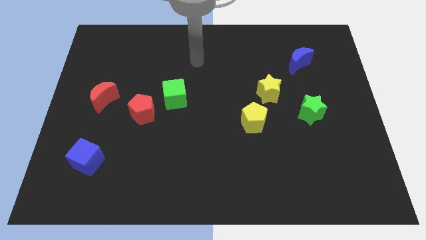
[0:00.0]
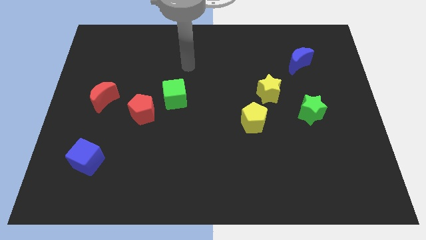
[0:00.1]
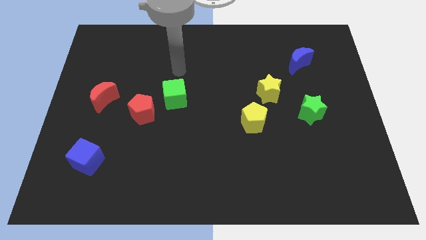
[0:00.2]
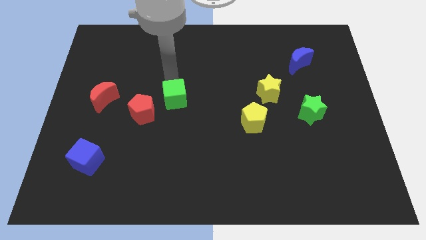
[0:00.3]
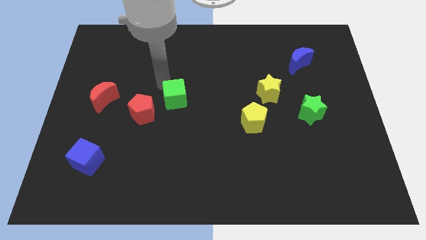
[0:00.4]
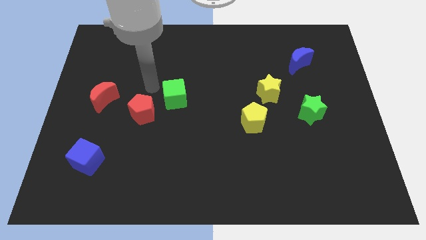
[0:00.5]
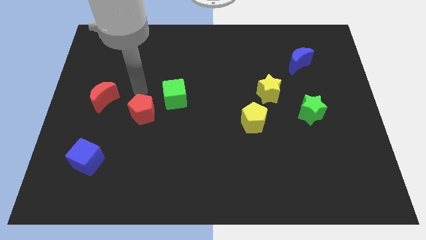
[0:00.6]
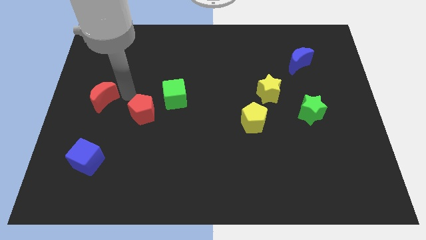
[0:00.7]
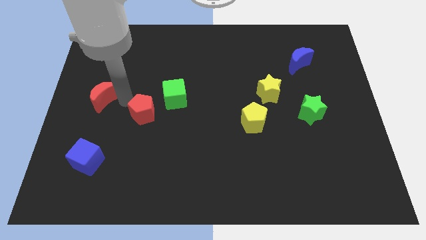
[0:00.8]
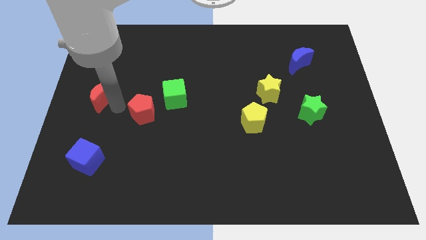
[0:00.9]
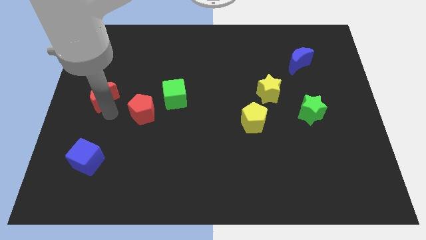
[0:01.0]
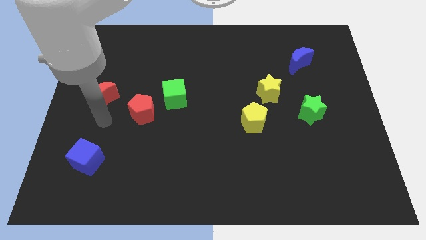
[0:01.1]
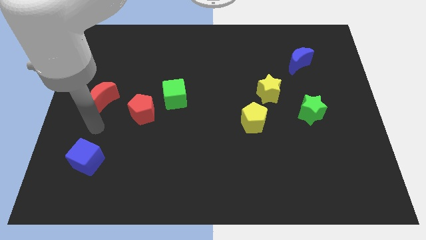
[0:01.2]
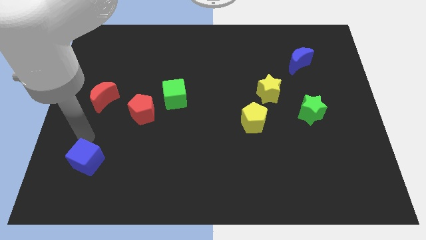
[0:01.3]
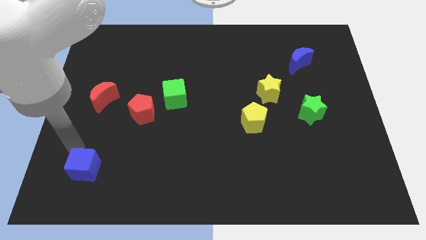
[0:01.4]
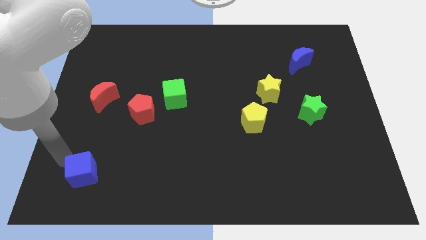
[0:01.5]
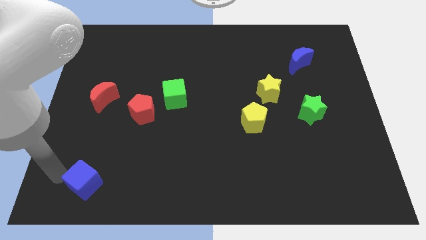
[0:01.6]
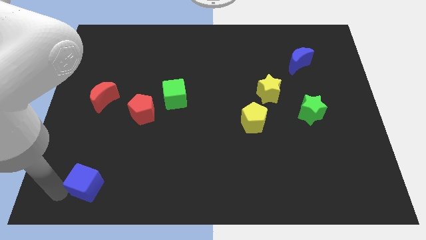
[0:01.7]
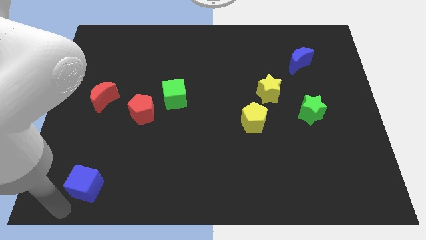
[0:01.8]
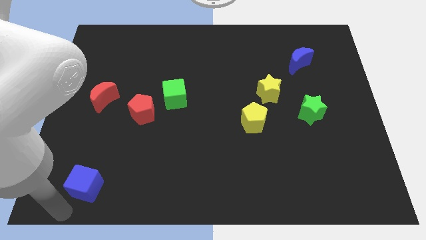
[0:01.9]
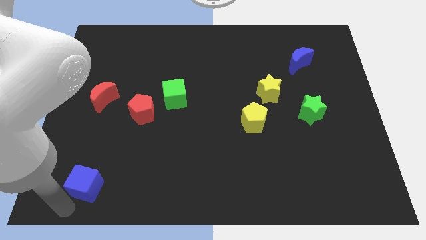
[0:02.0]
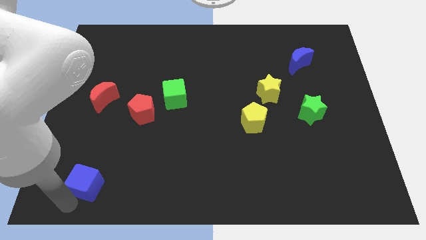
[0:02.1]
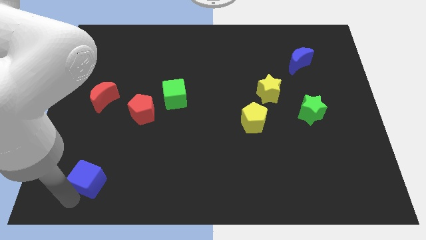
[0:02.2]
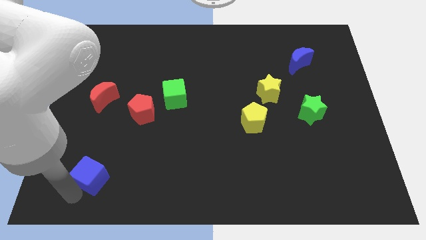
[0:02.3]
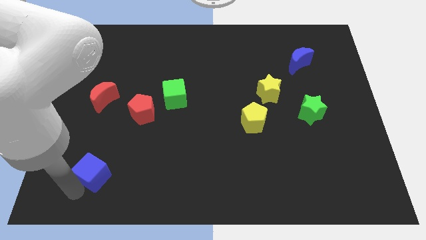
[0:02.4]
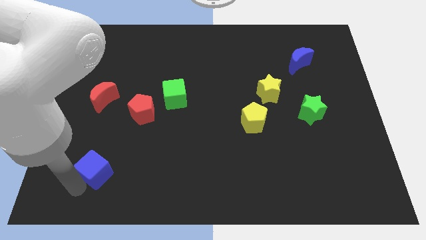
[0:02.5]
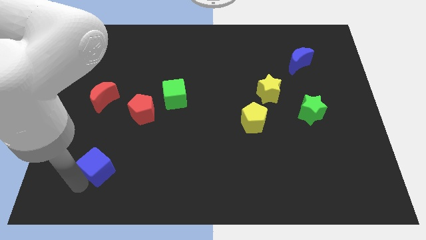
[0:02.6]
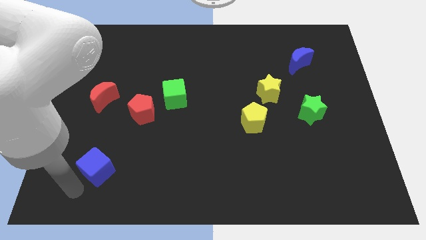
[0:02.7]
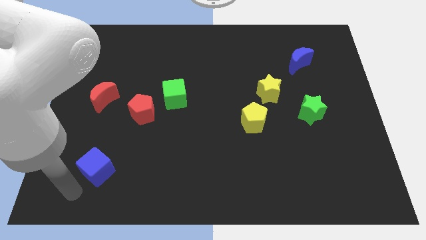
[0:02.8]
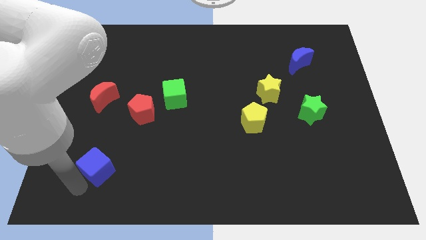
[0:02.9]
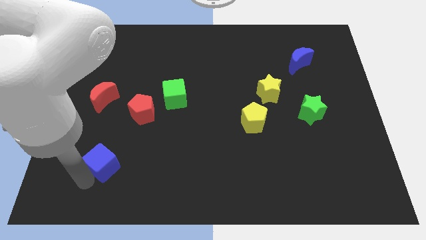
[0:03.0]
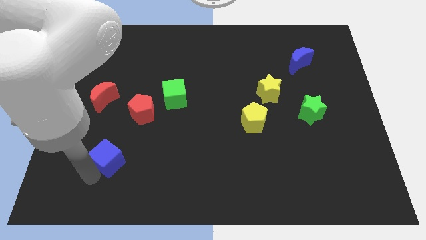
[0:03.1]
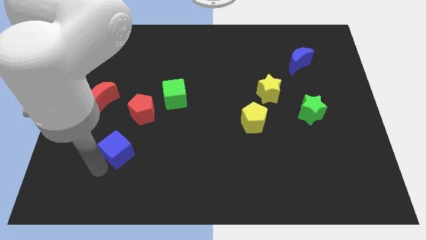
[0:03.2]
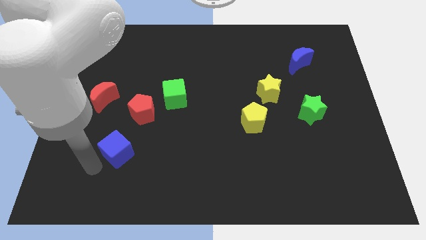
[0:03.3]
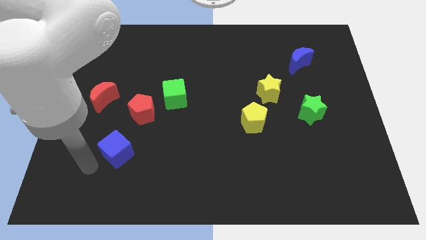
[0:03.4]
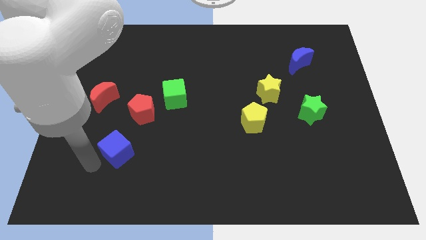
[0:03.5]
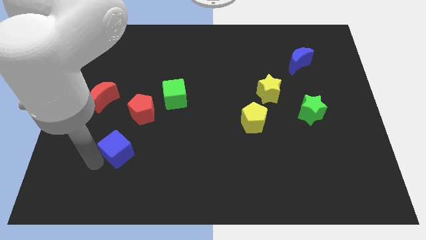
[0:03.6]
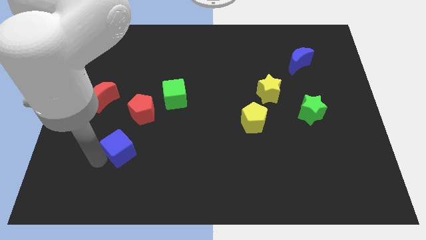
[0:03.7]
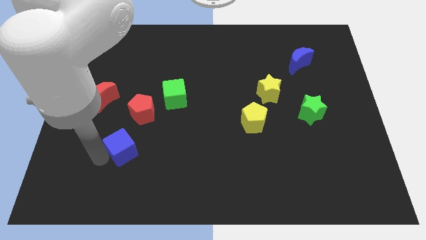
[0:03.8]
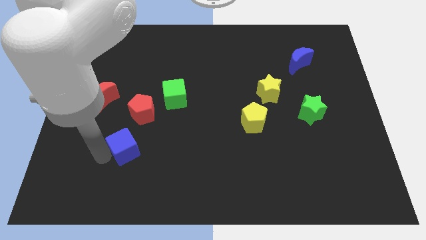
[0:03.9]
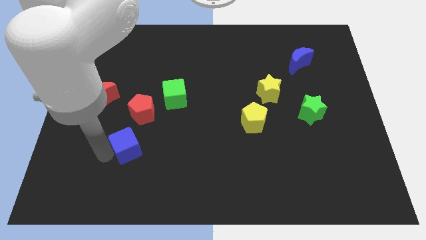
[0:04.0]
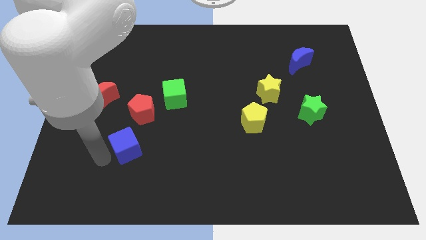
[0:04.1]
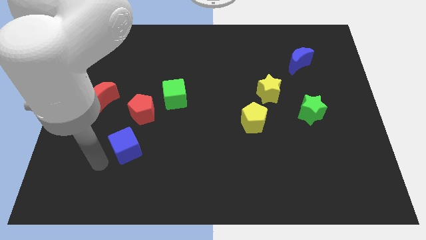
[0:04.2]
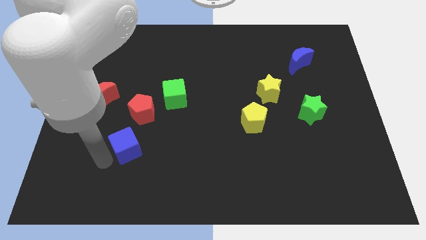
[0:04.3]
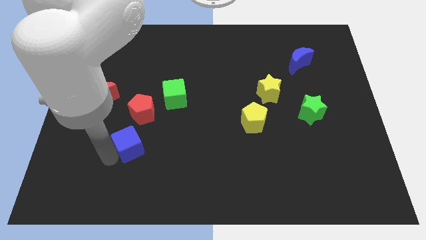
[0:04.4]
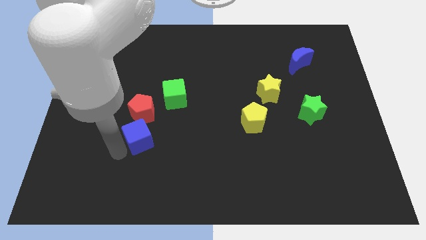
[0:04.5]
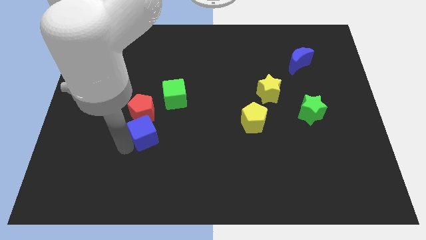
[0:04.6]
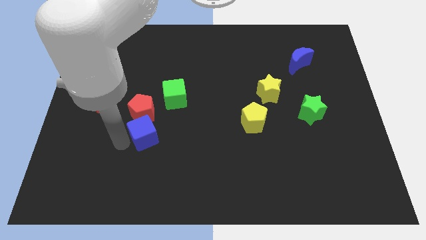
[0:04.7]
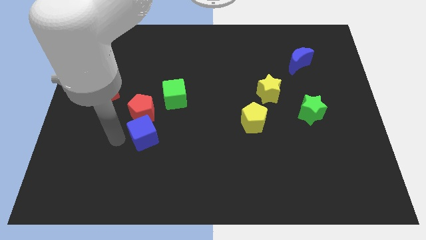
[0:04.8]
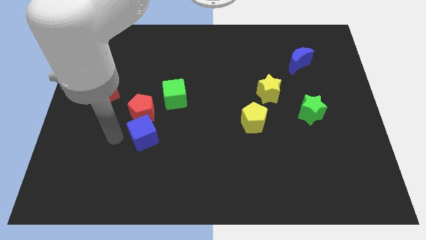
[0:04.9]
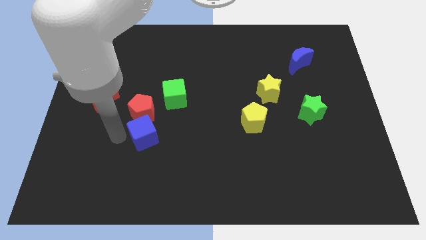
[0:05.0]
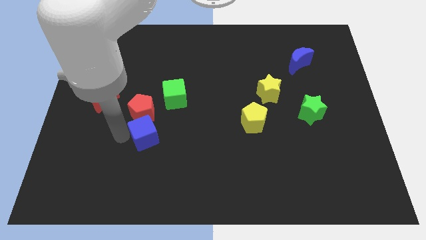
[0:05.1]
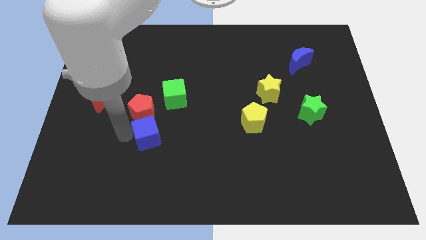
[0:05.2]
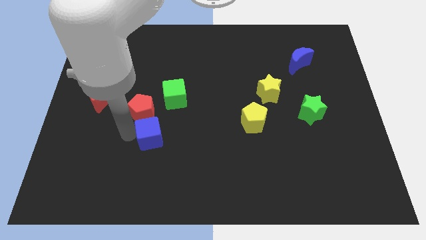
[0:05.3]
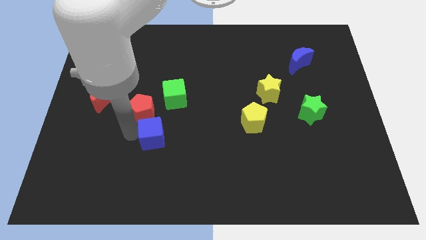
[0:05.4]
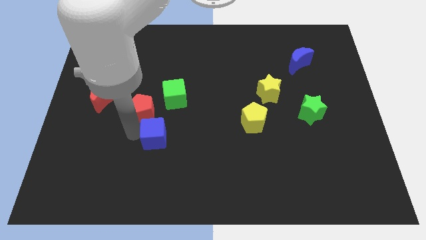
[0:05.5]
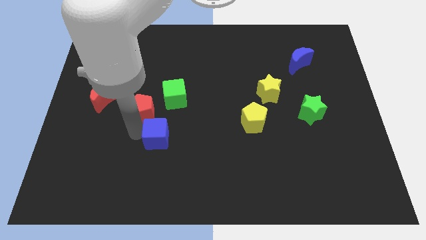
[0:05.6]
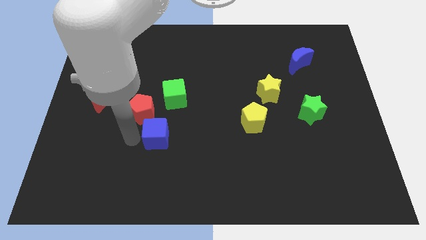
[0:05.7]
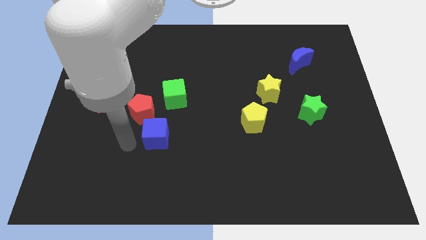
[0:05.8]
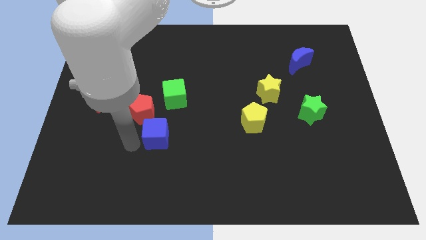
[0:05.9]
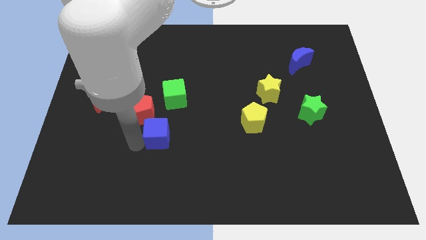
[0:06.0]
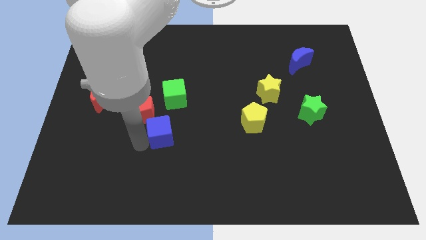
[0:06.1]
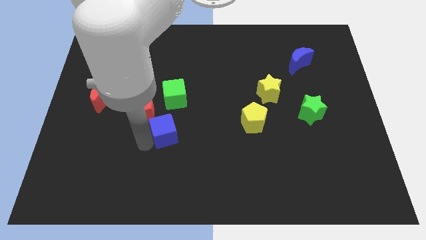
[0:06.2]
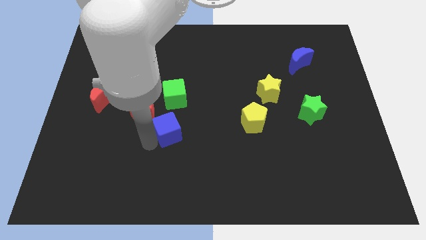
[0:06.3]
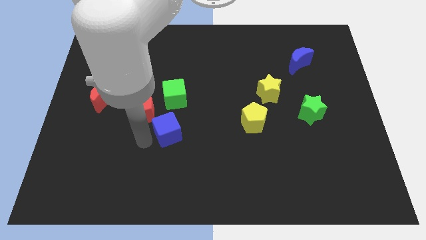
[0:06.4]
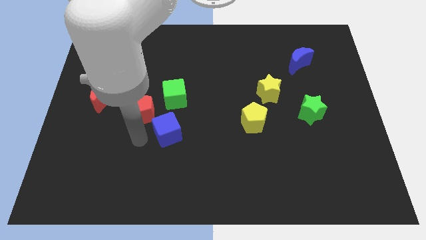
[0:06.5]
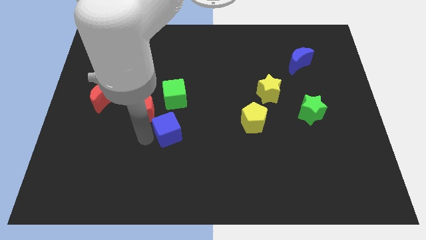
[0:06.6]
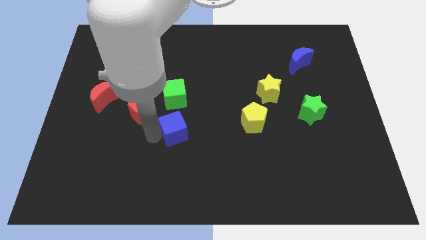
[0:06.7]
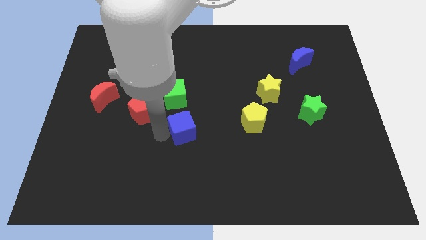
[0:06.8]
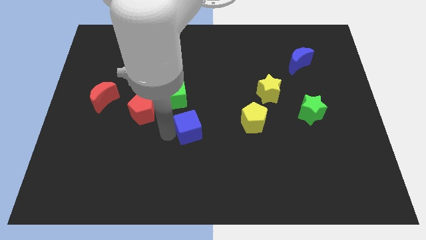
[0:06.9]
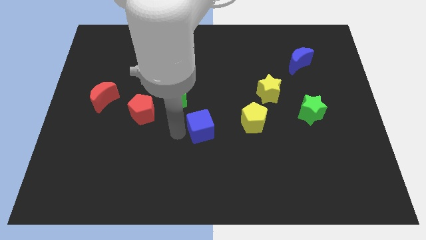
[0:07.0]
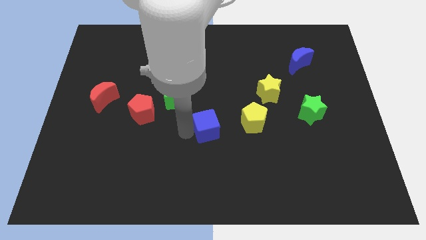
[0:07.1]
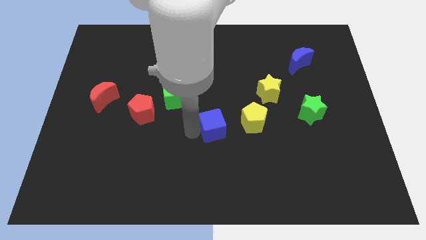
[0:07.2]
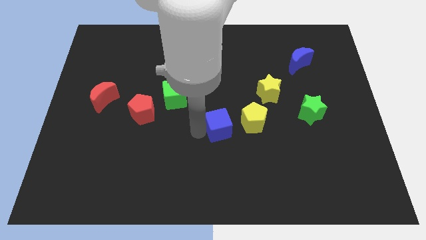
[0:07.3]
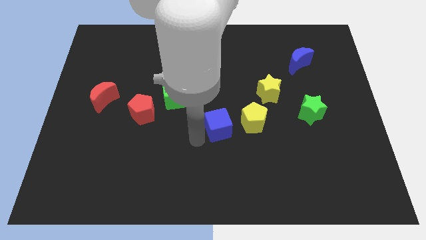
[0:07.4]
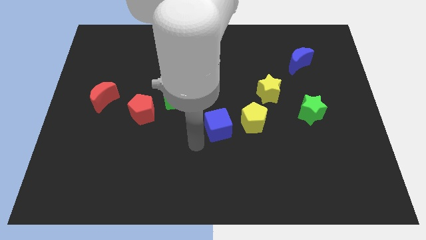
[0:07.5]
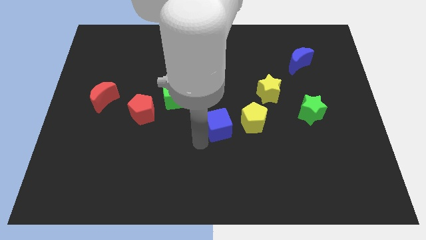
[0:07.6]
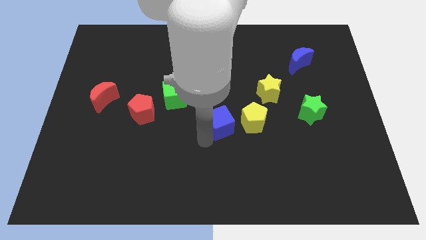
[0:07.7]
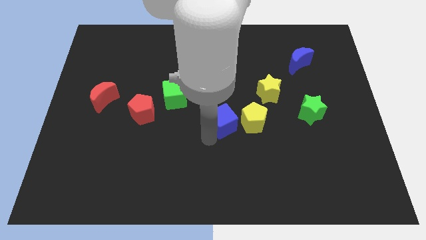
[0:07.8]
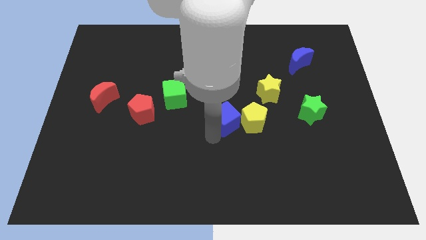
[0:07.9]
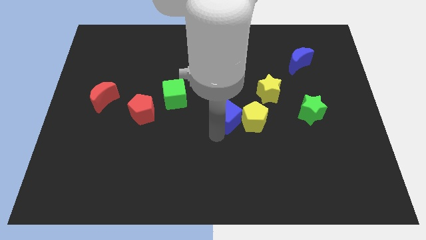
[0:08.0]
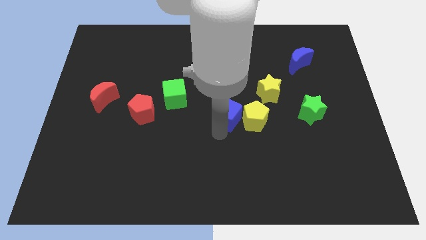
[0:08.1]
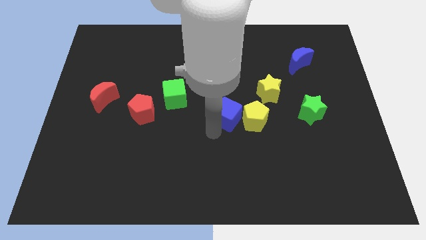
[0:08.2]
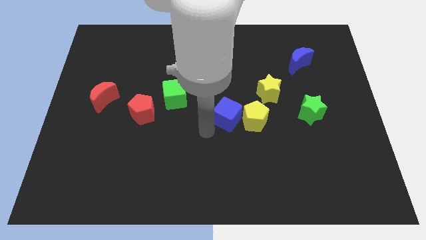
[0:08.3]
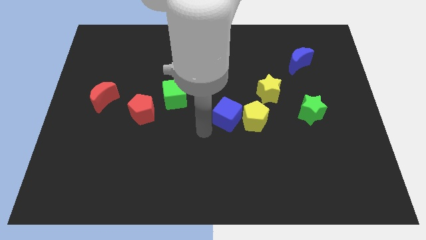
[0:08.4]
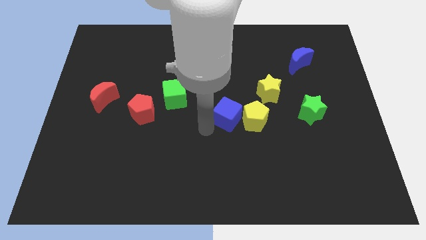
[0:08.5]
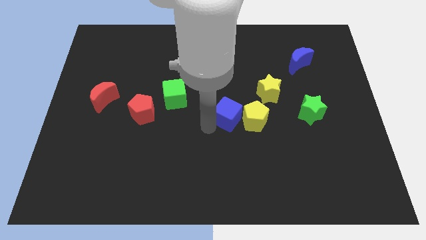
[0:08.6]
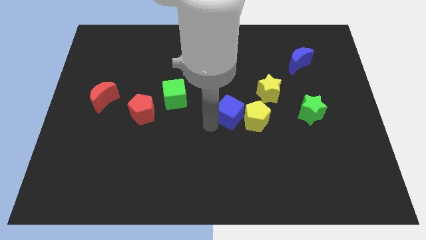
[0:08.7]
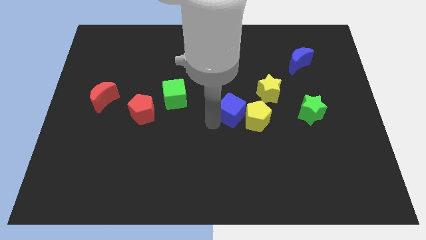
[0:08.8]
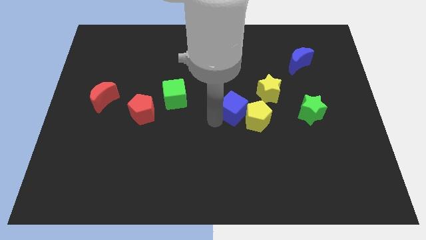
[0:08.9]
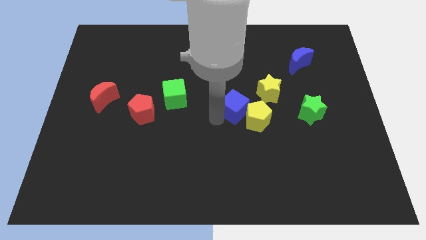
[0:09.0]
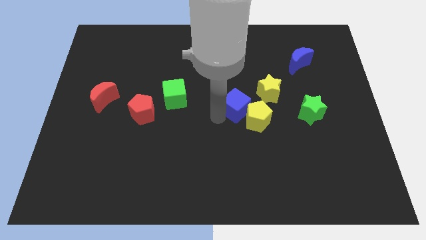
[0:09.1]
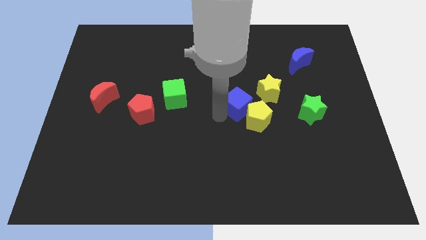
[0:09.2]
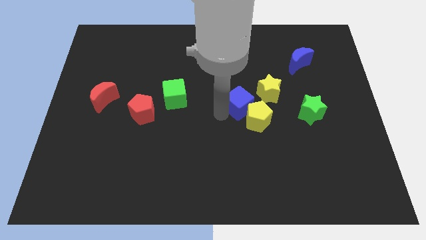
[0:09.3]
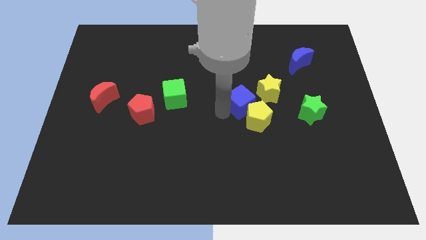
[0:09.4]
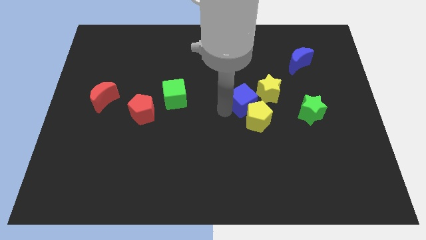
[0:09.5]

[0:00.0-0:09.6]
push the blue cube to the left of the green star
